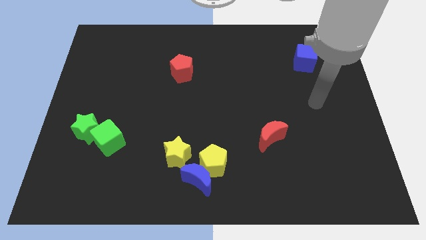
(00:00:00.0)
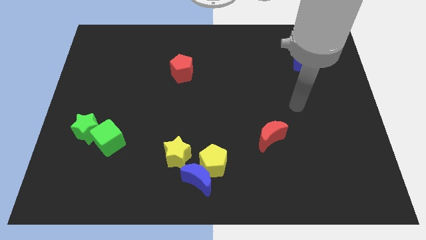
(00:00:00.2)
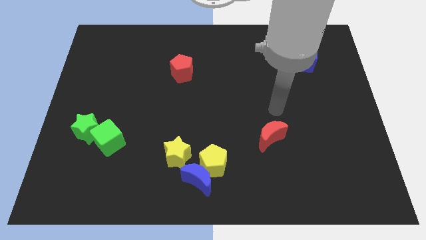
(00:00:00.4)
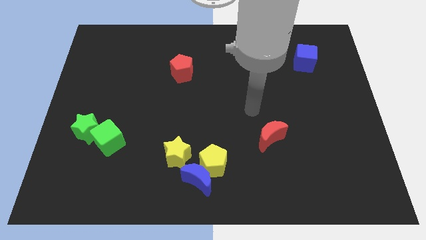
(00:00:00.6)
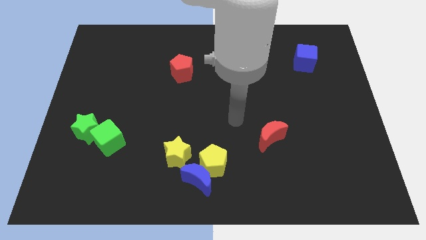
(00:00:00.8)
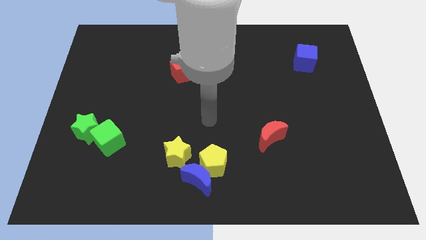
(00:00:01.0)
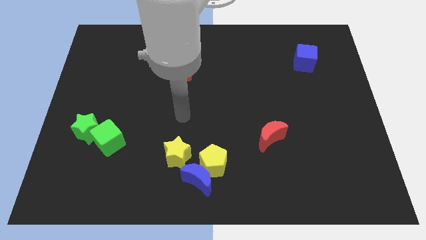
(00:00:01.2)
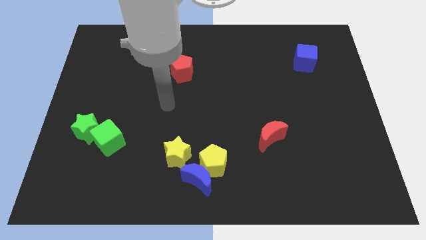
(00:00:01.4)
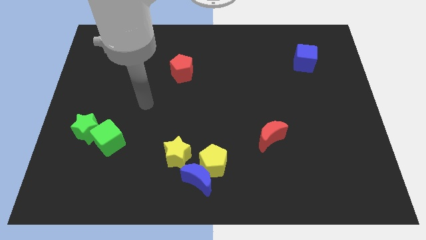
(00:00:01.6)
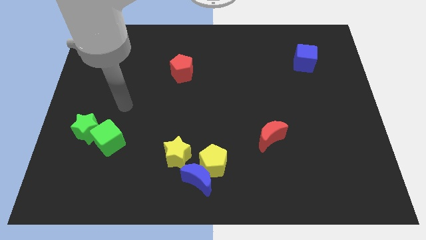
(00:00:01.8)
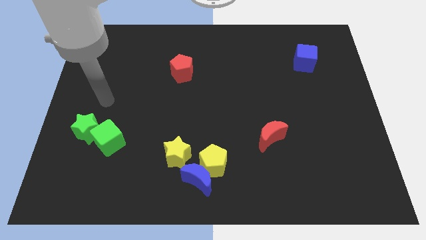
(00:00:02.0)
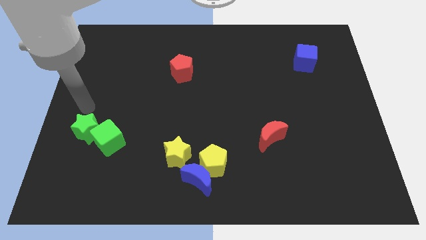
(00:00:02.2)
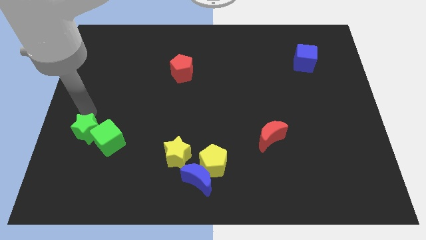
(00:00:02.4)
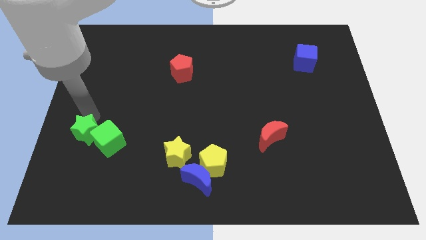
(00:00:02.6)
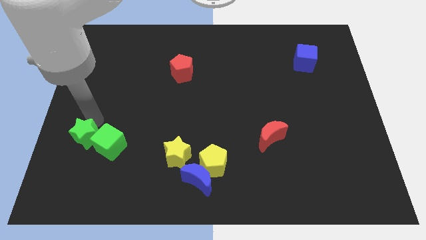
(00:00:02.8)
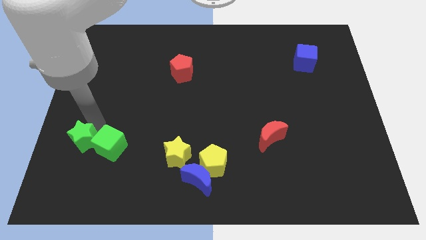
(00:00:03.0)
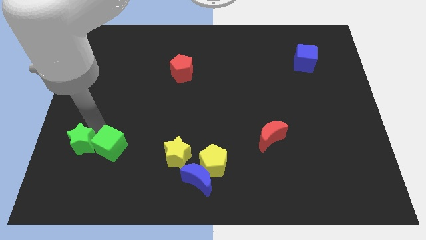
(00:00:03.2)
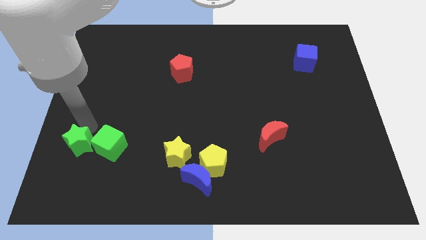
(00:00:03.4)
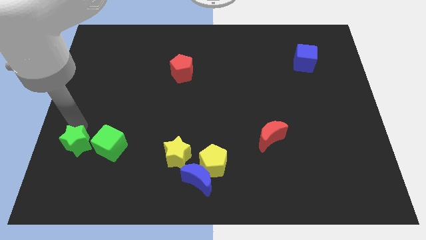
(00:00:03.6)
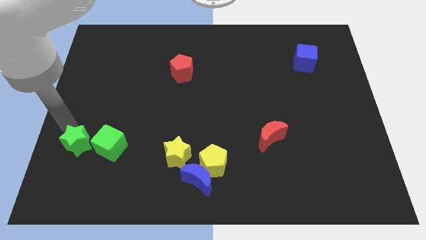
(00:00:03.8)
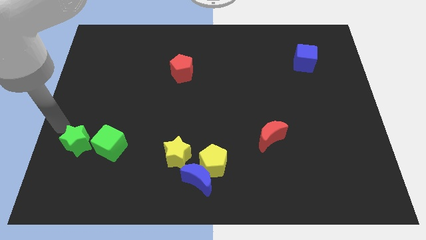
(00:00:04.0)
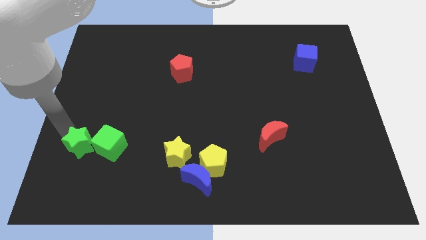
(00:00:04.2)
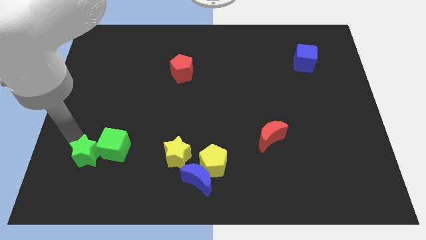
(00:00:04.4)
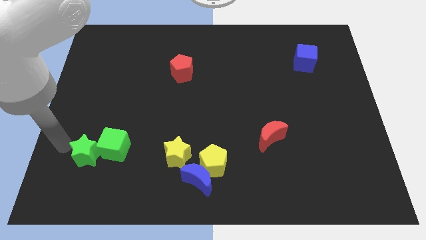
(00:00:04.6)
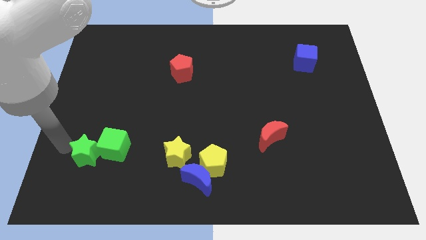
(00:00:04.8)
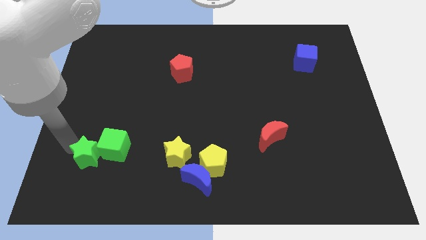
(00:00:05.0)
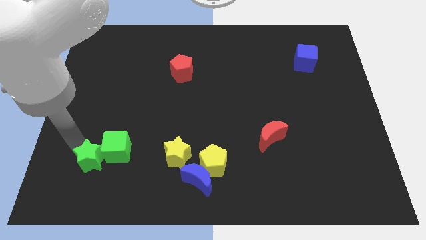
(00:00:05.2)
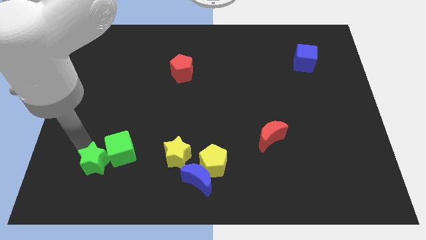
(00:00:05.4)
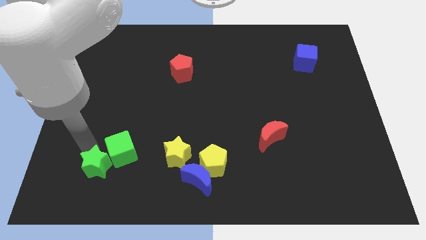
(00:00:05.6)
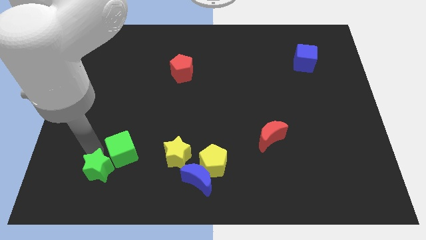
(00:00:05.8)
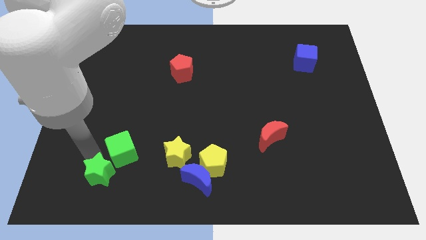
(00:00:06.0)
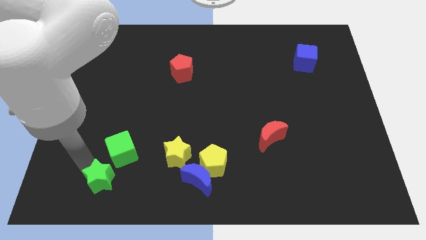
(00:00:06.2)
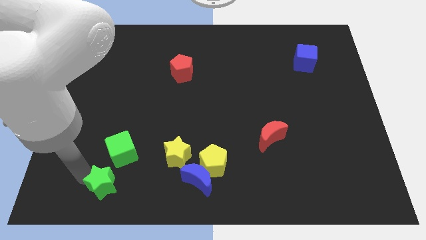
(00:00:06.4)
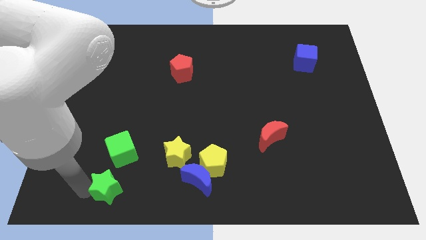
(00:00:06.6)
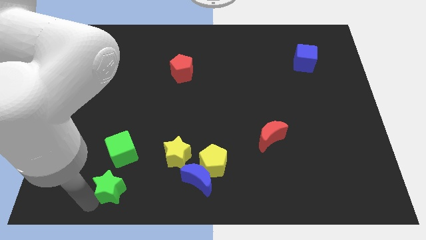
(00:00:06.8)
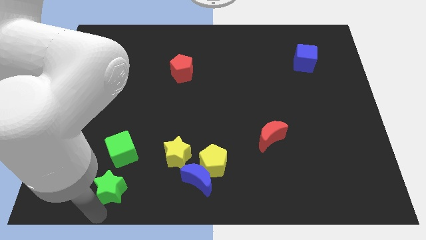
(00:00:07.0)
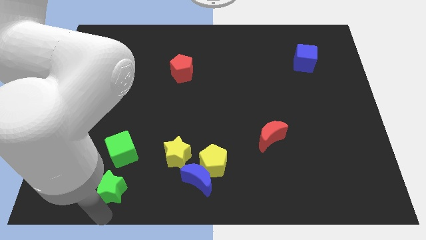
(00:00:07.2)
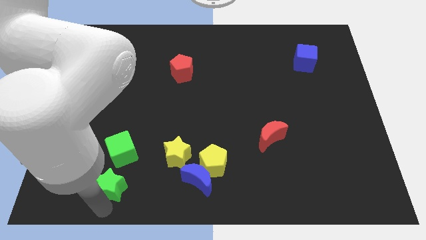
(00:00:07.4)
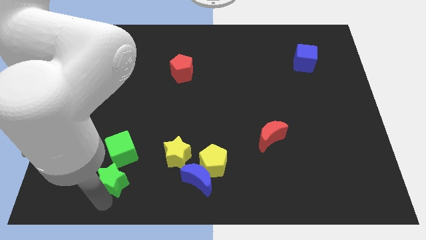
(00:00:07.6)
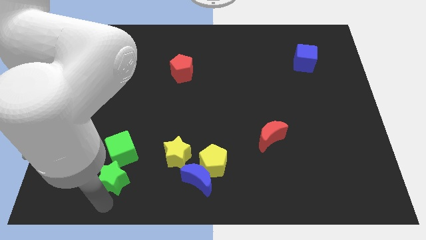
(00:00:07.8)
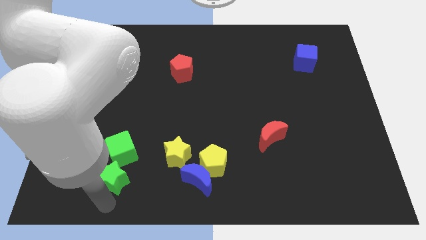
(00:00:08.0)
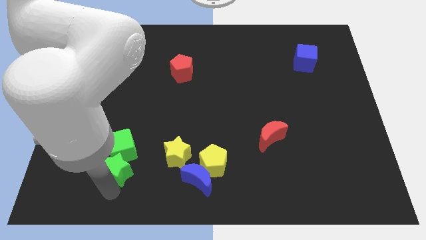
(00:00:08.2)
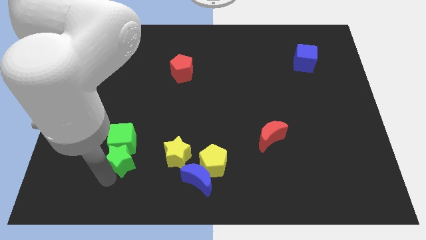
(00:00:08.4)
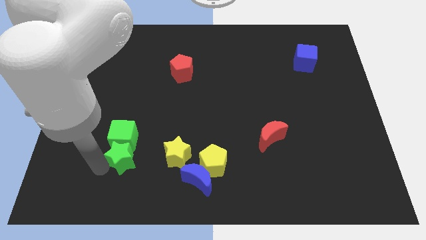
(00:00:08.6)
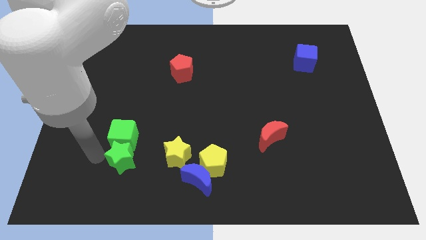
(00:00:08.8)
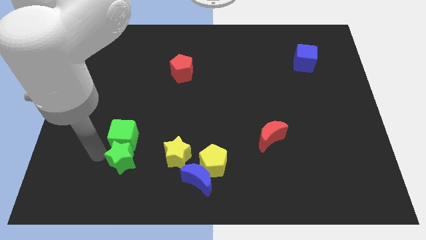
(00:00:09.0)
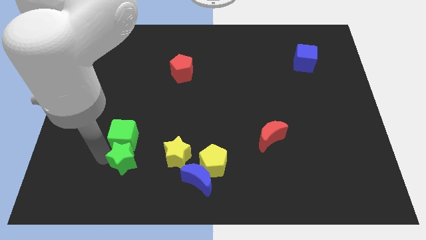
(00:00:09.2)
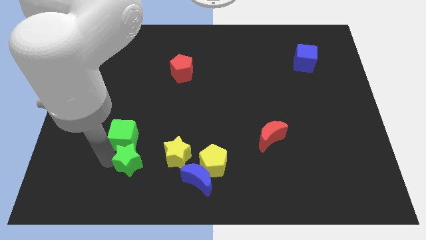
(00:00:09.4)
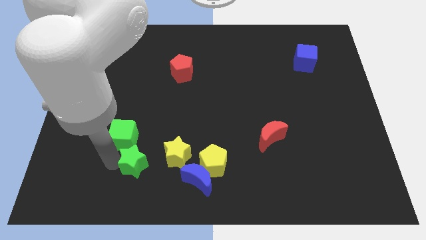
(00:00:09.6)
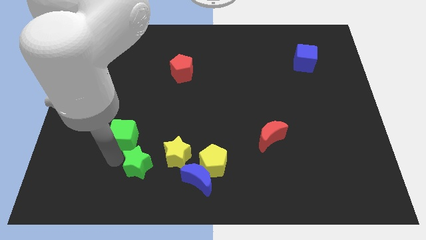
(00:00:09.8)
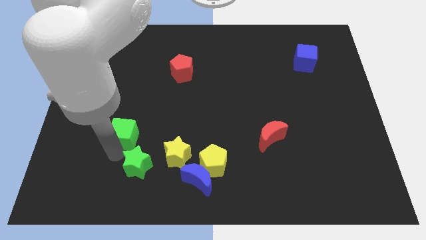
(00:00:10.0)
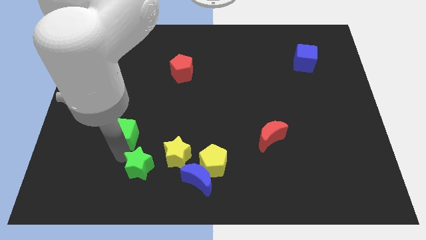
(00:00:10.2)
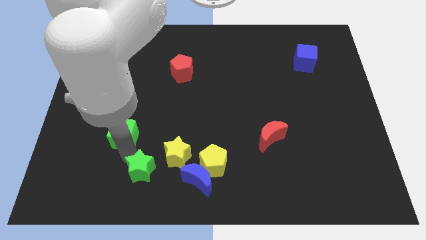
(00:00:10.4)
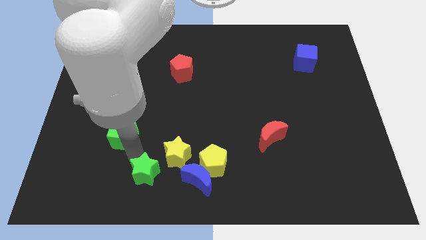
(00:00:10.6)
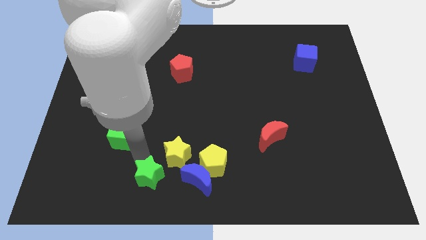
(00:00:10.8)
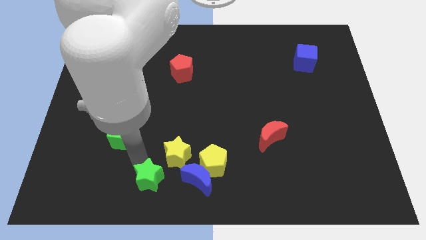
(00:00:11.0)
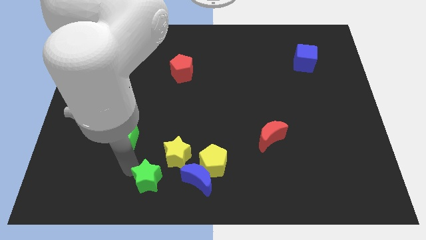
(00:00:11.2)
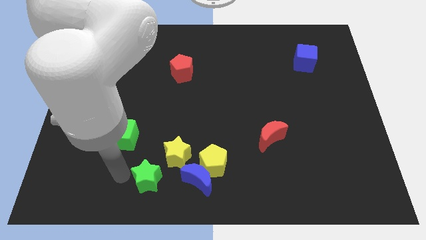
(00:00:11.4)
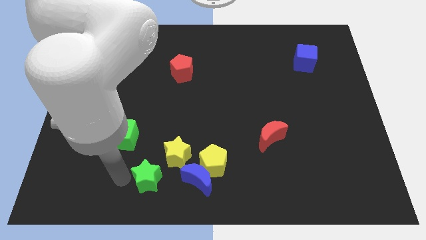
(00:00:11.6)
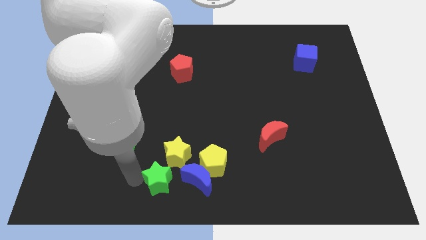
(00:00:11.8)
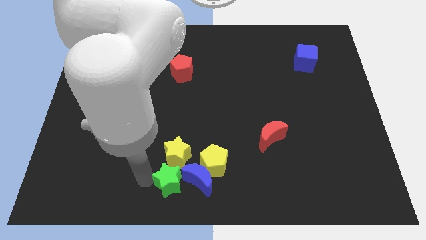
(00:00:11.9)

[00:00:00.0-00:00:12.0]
push the green star towards the blue moon

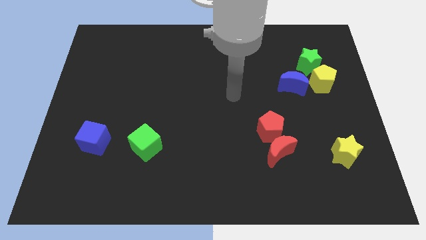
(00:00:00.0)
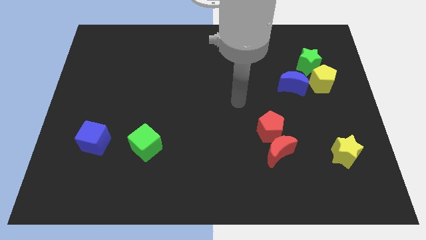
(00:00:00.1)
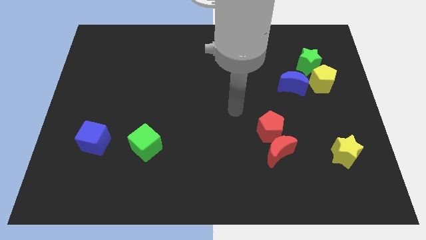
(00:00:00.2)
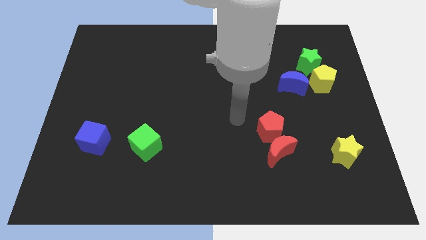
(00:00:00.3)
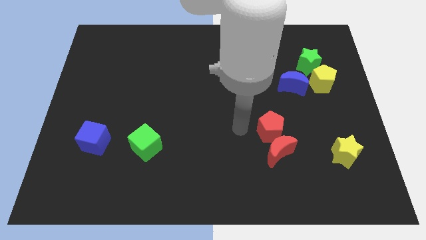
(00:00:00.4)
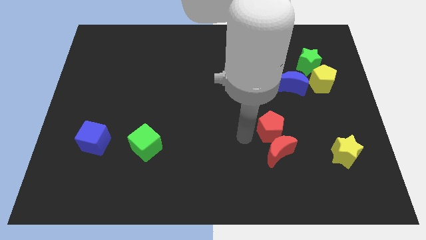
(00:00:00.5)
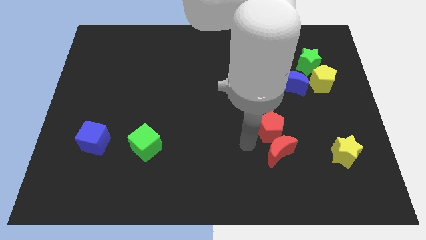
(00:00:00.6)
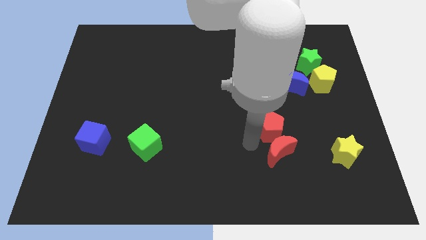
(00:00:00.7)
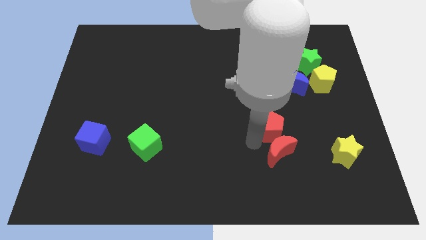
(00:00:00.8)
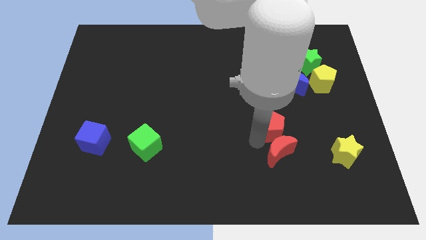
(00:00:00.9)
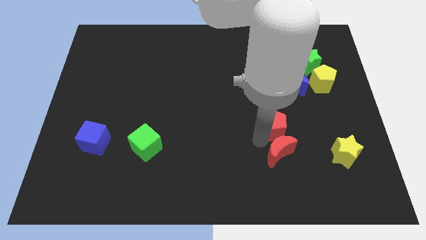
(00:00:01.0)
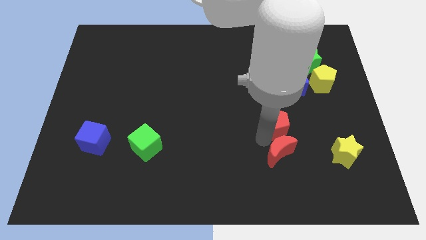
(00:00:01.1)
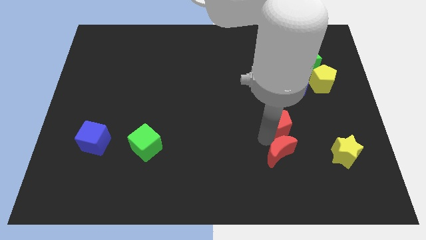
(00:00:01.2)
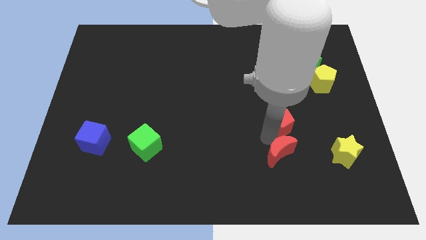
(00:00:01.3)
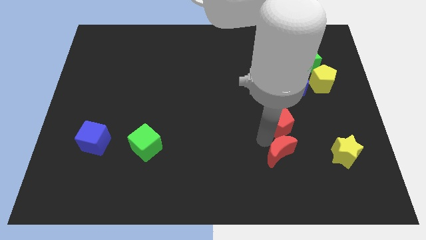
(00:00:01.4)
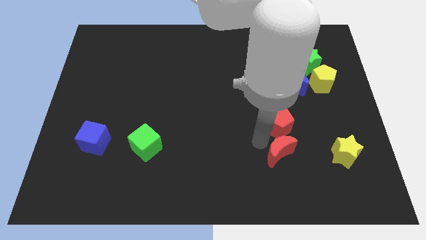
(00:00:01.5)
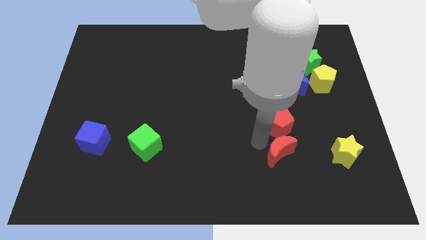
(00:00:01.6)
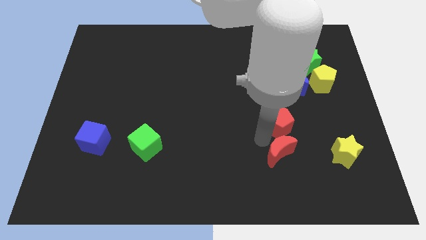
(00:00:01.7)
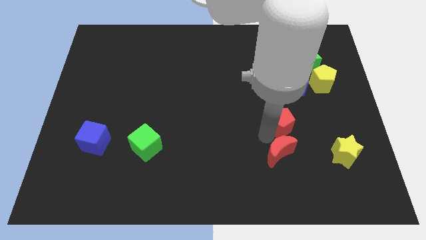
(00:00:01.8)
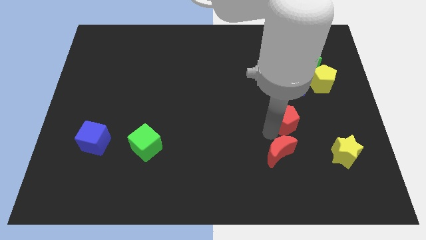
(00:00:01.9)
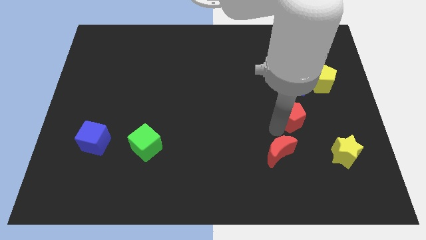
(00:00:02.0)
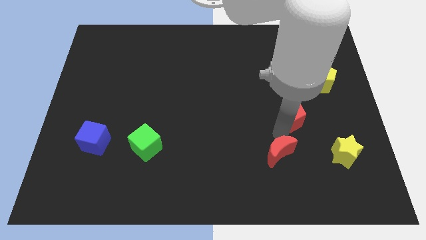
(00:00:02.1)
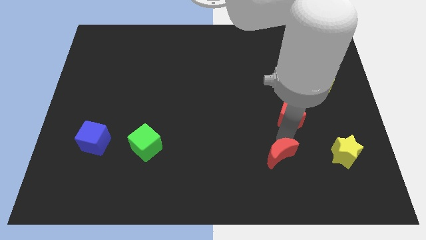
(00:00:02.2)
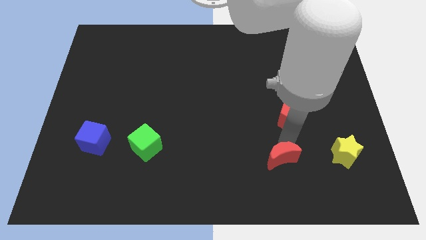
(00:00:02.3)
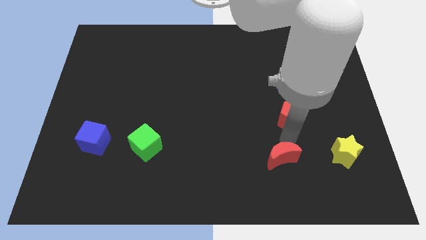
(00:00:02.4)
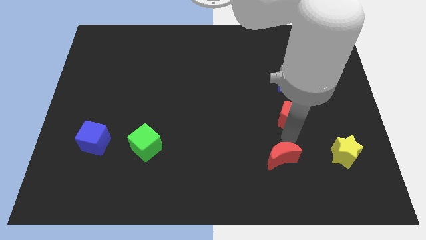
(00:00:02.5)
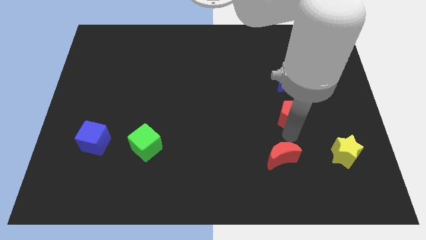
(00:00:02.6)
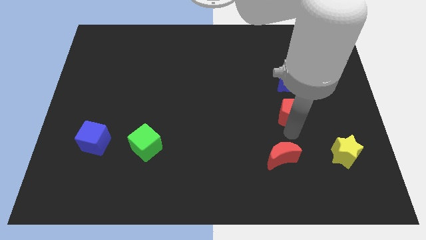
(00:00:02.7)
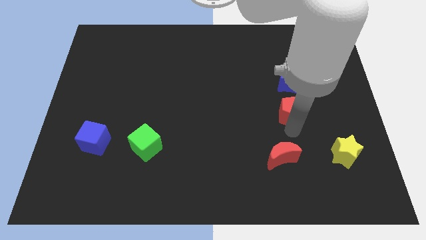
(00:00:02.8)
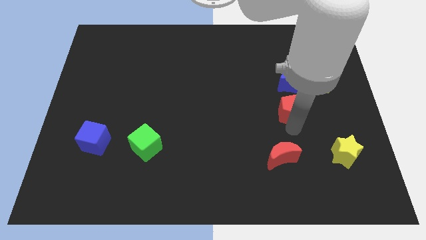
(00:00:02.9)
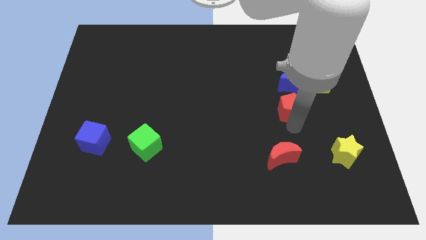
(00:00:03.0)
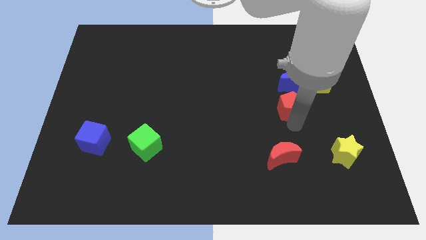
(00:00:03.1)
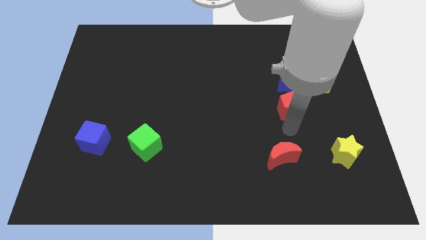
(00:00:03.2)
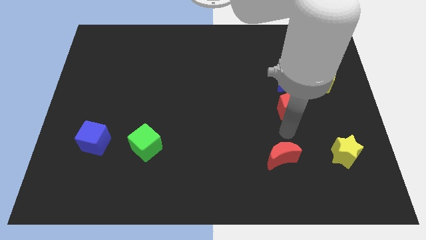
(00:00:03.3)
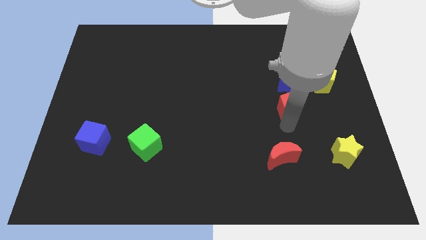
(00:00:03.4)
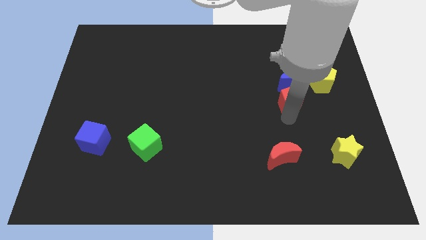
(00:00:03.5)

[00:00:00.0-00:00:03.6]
put the red pentagon to the blue moon
